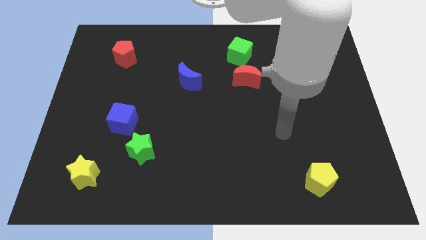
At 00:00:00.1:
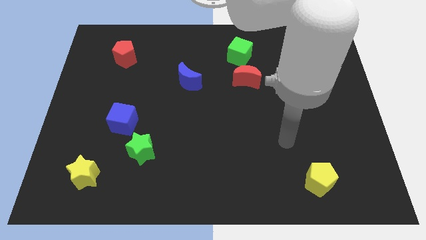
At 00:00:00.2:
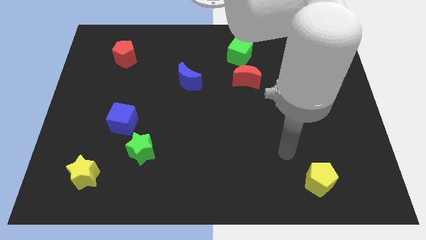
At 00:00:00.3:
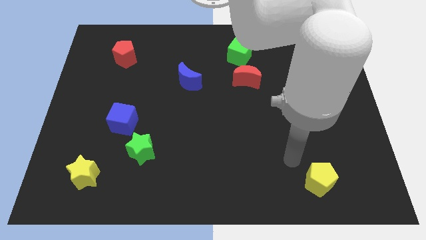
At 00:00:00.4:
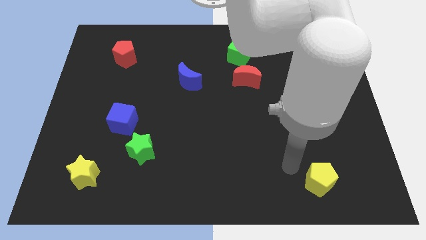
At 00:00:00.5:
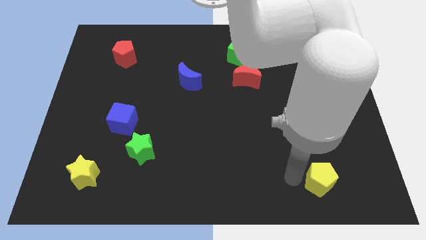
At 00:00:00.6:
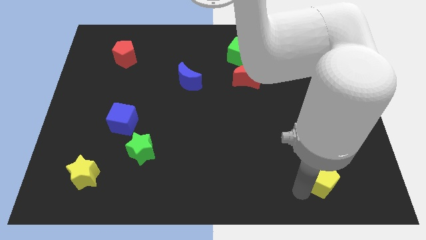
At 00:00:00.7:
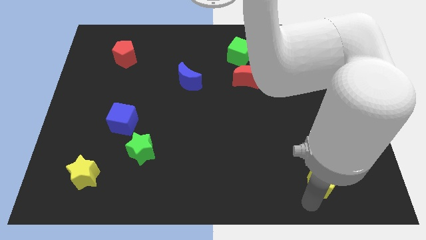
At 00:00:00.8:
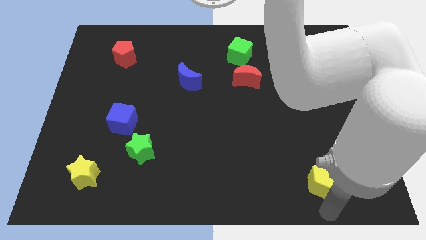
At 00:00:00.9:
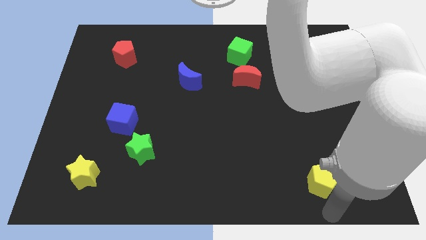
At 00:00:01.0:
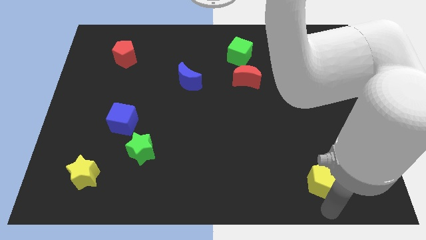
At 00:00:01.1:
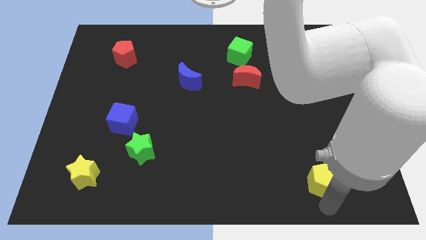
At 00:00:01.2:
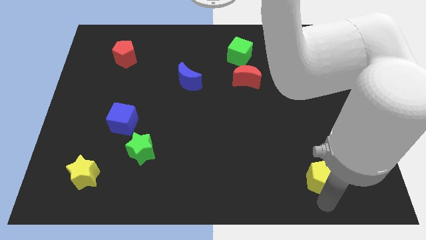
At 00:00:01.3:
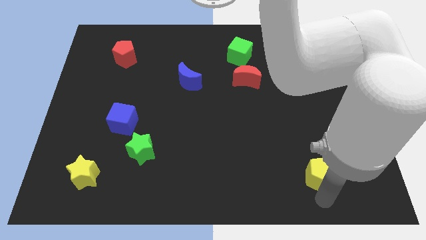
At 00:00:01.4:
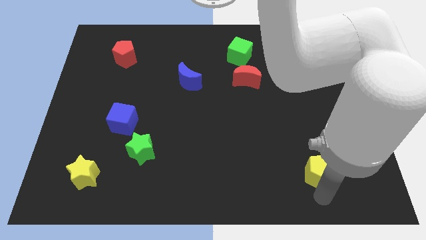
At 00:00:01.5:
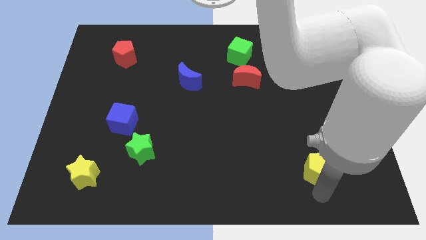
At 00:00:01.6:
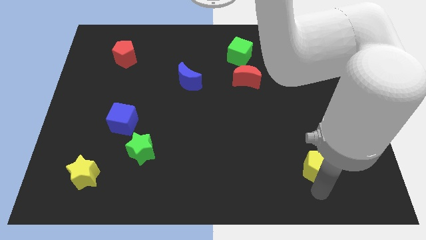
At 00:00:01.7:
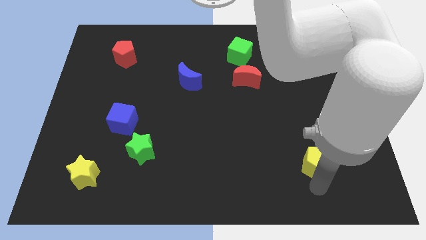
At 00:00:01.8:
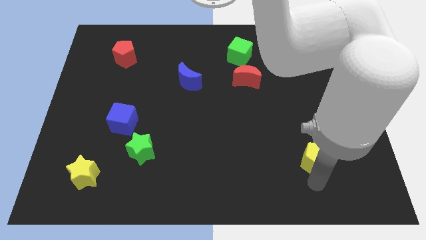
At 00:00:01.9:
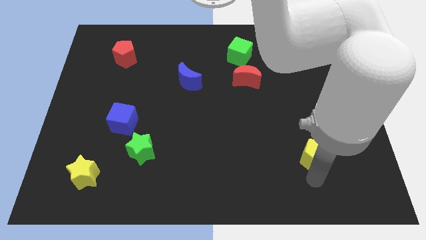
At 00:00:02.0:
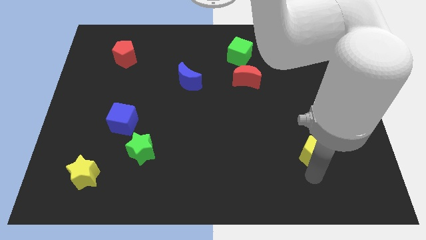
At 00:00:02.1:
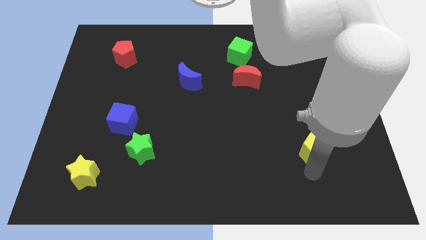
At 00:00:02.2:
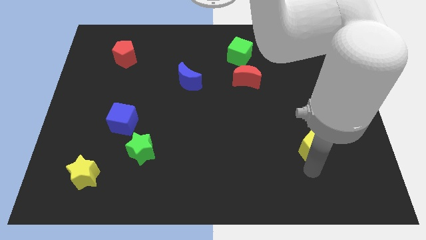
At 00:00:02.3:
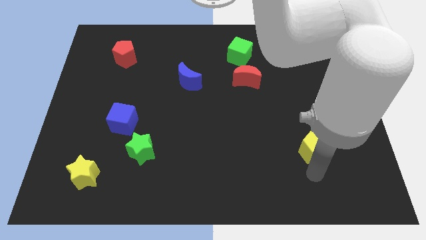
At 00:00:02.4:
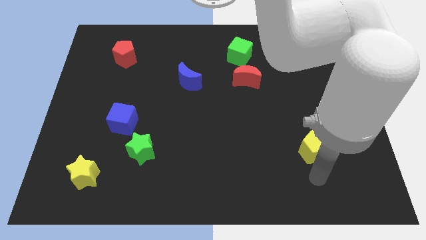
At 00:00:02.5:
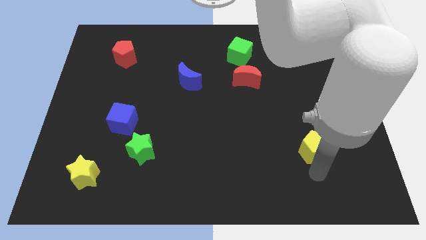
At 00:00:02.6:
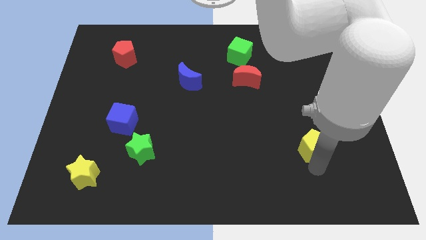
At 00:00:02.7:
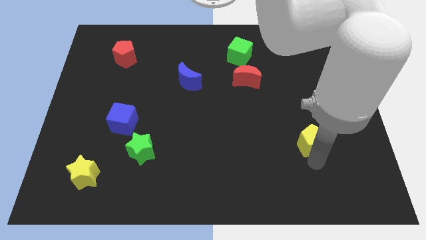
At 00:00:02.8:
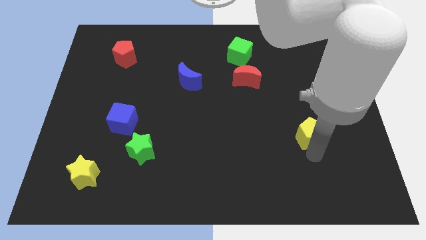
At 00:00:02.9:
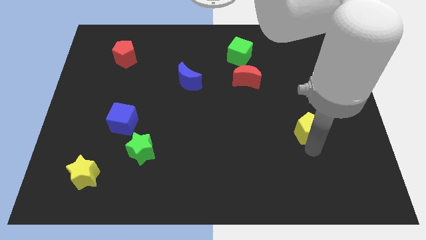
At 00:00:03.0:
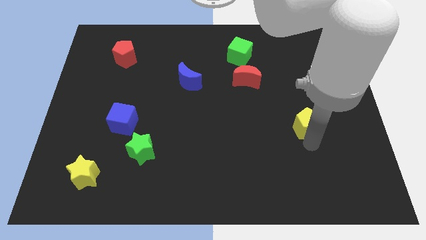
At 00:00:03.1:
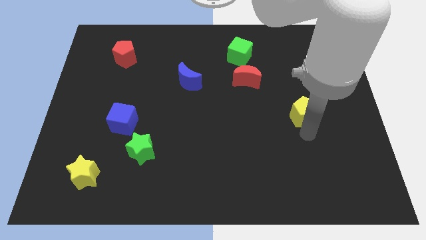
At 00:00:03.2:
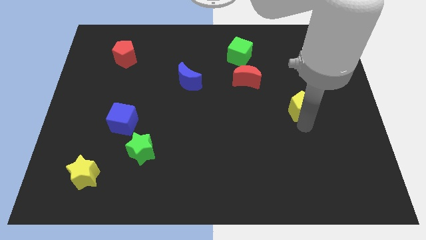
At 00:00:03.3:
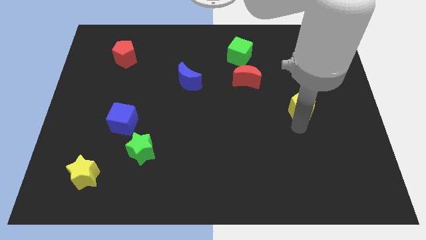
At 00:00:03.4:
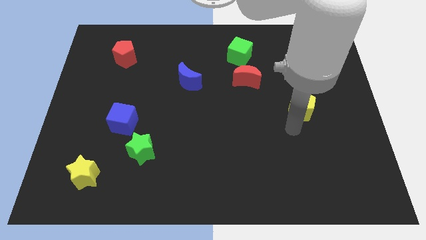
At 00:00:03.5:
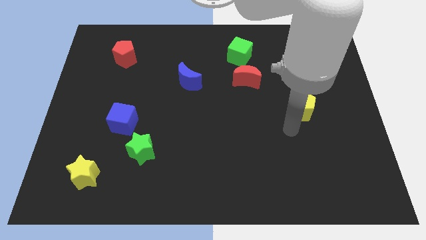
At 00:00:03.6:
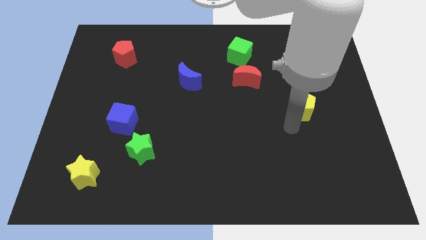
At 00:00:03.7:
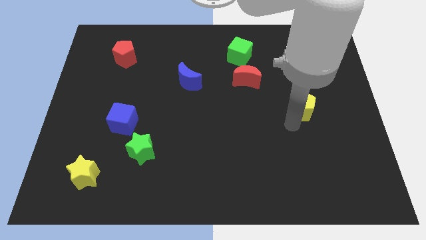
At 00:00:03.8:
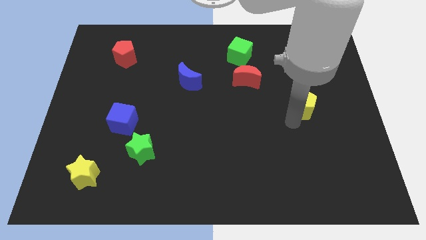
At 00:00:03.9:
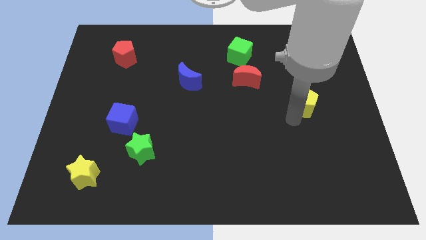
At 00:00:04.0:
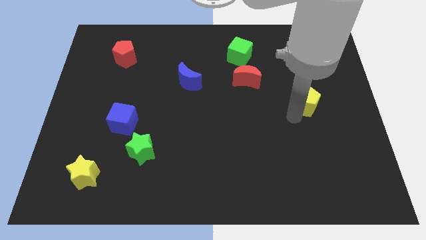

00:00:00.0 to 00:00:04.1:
move the yellow pentagon upwards

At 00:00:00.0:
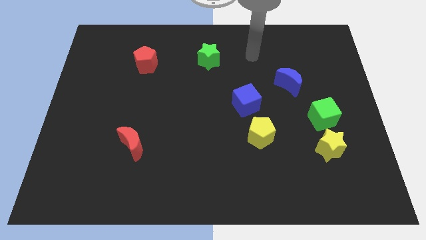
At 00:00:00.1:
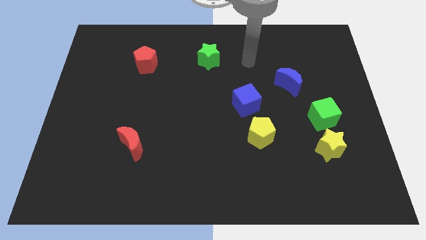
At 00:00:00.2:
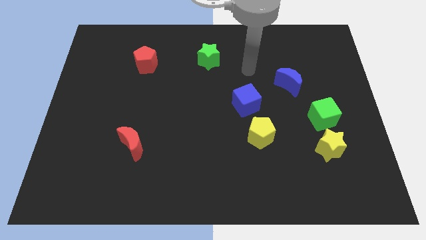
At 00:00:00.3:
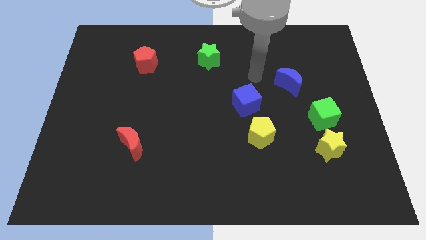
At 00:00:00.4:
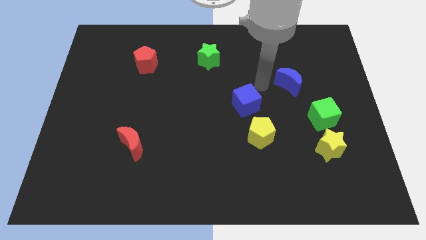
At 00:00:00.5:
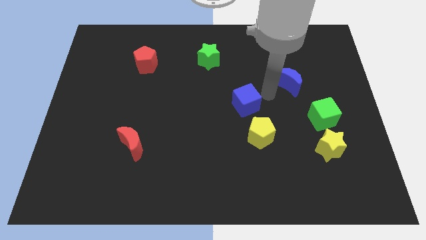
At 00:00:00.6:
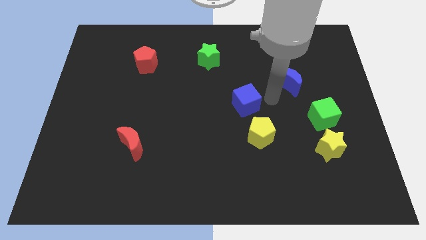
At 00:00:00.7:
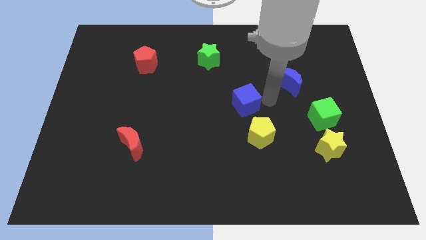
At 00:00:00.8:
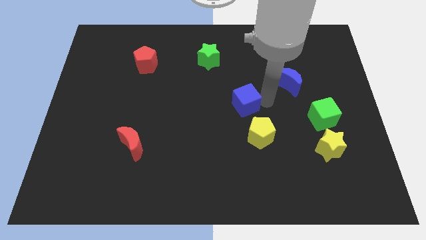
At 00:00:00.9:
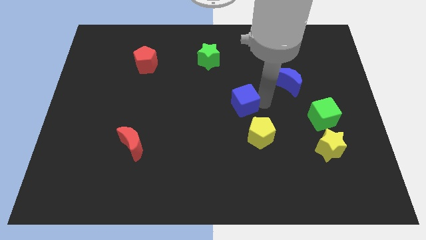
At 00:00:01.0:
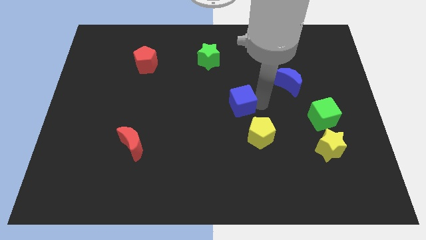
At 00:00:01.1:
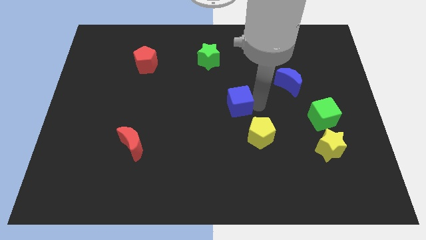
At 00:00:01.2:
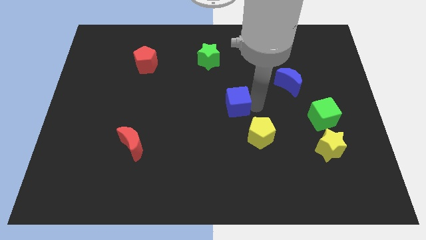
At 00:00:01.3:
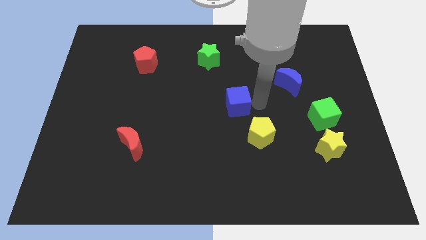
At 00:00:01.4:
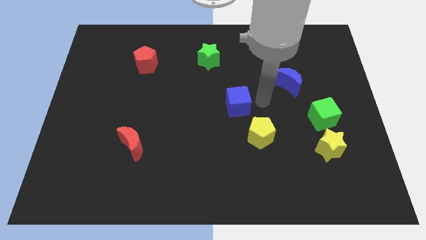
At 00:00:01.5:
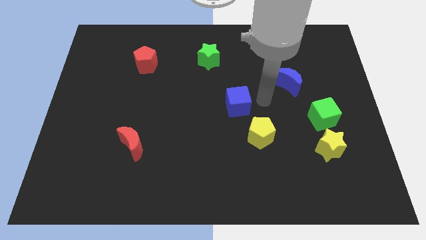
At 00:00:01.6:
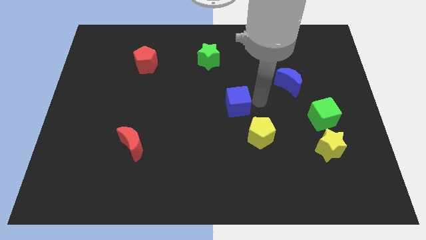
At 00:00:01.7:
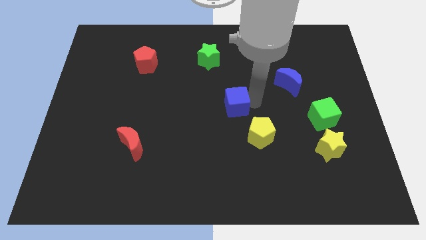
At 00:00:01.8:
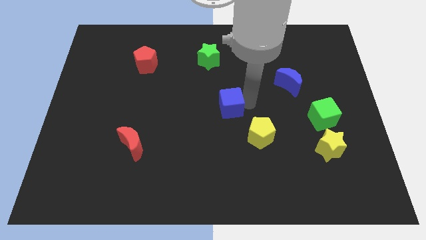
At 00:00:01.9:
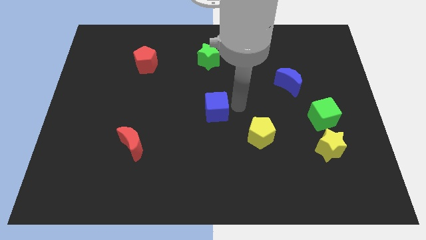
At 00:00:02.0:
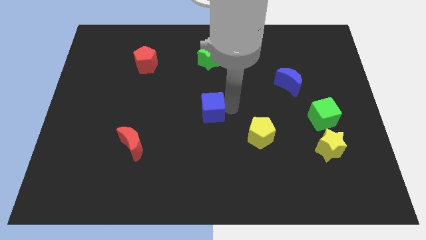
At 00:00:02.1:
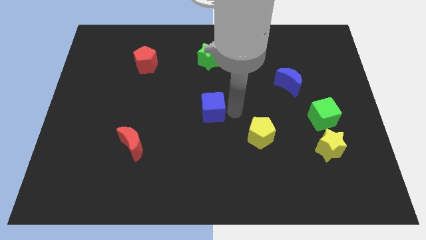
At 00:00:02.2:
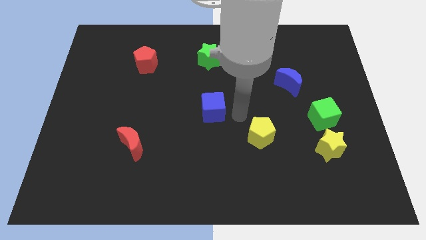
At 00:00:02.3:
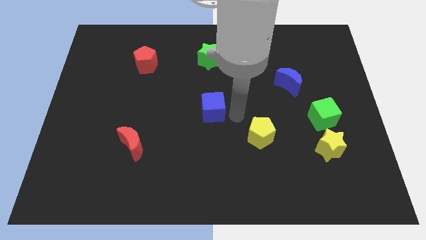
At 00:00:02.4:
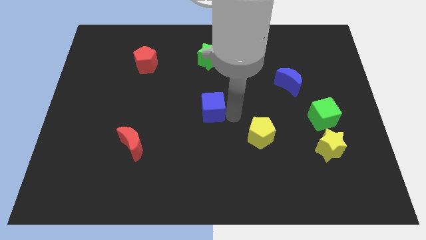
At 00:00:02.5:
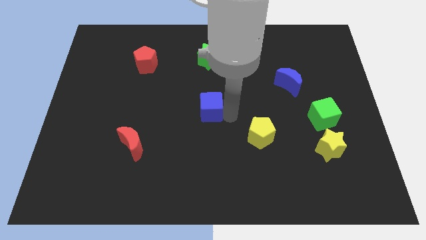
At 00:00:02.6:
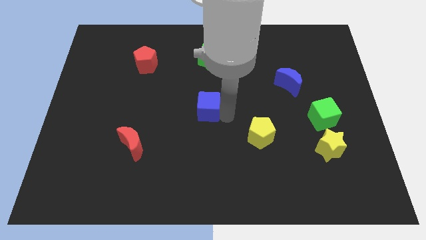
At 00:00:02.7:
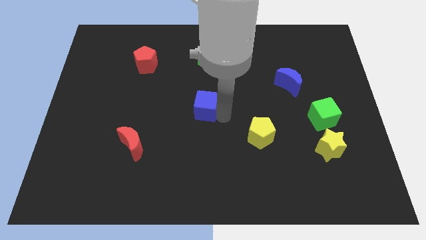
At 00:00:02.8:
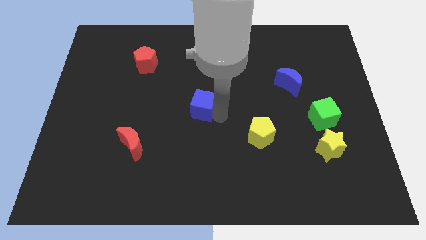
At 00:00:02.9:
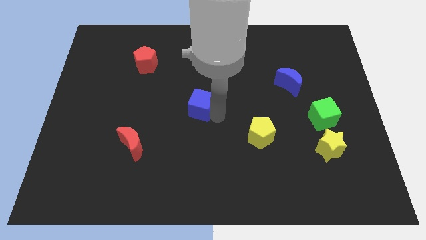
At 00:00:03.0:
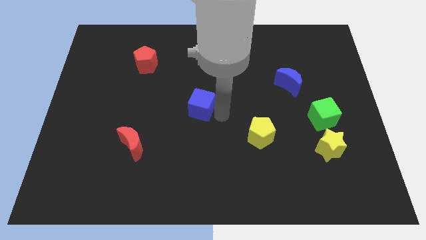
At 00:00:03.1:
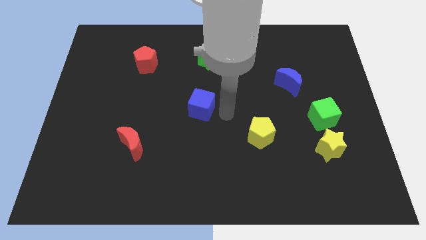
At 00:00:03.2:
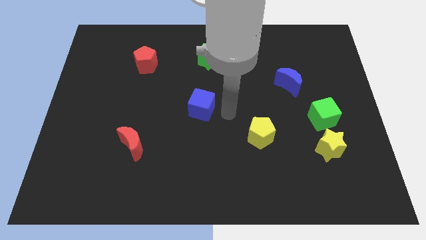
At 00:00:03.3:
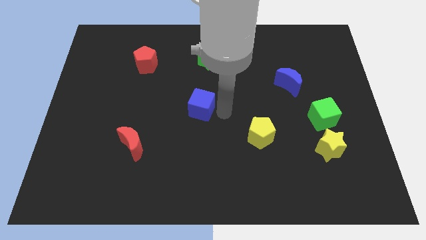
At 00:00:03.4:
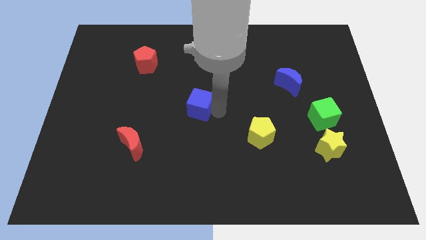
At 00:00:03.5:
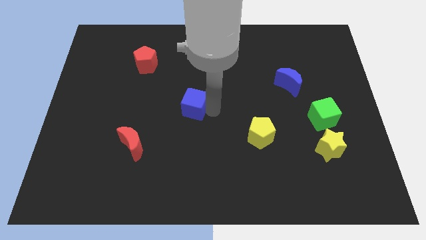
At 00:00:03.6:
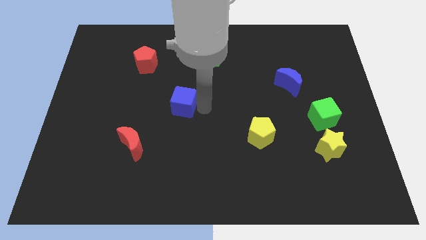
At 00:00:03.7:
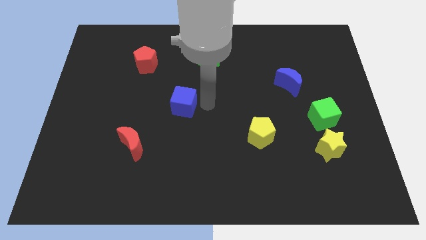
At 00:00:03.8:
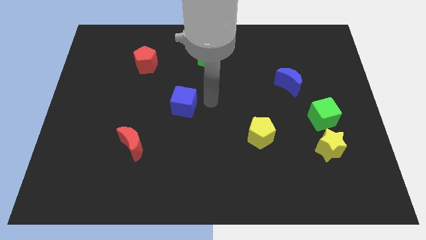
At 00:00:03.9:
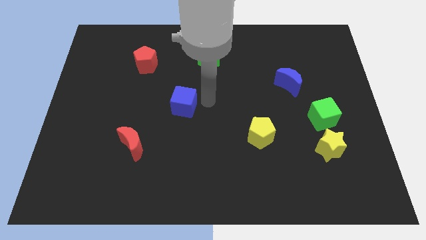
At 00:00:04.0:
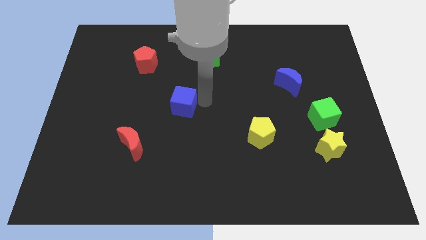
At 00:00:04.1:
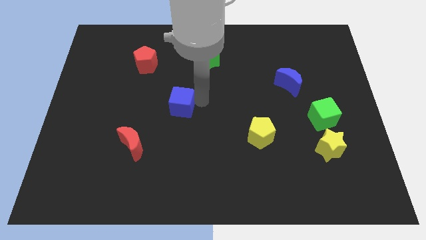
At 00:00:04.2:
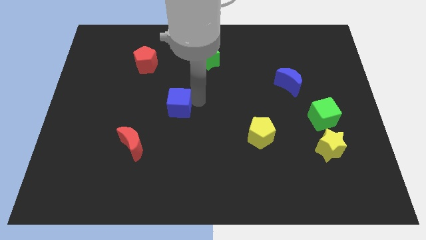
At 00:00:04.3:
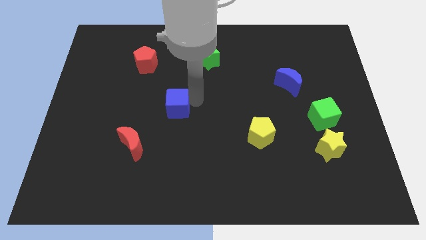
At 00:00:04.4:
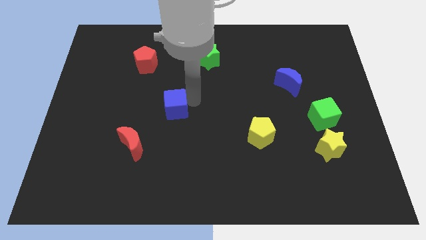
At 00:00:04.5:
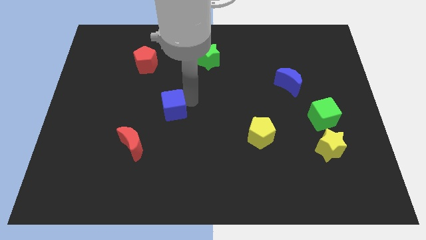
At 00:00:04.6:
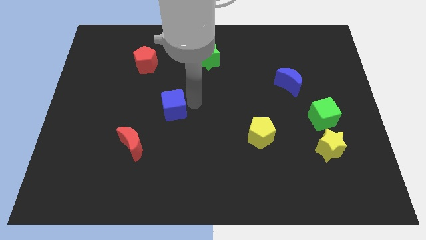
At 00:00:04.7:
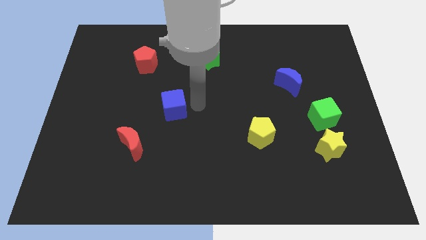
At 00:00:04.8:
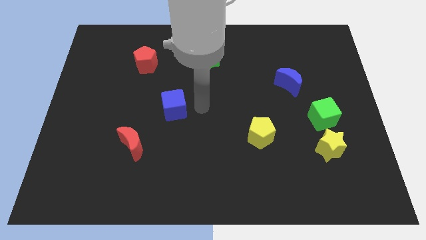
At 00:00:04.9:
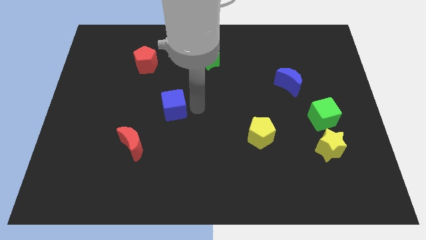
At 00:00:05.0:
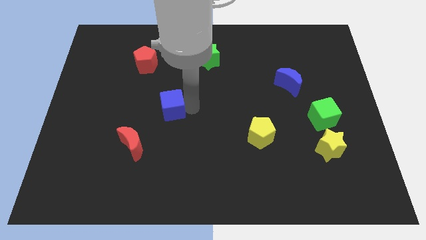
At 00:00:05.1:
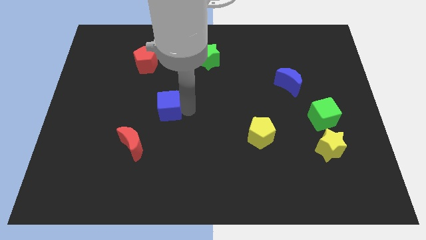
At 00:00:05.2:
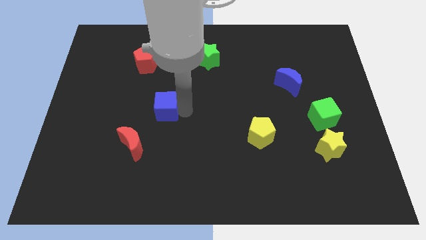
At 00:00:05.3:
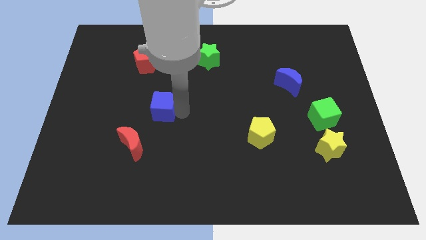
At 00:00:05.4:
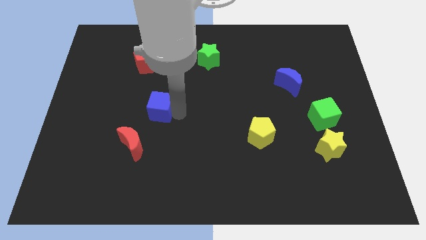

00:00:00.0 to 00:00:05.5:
slide the blue cube to the left
